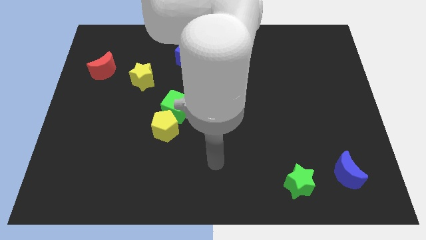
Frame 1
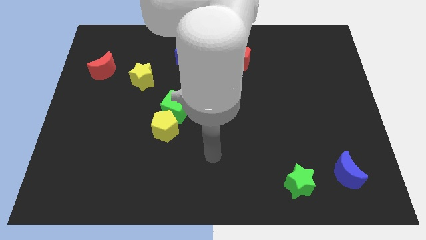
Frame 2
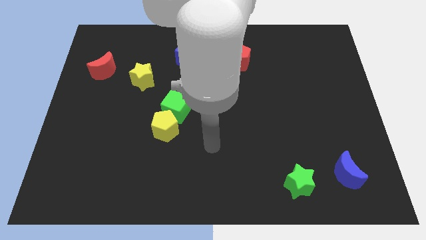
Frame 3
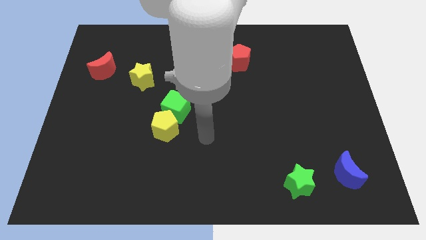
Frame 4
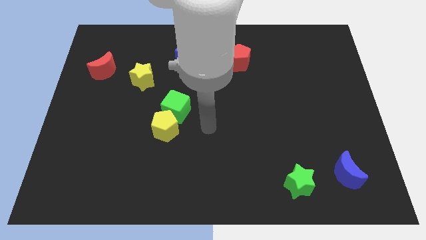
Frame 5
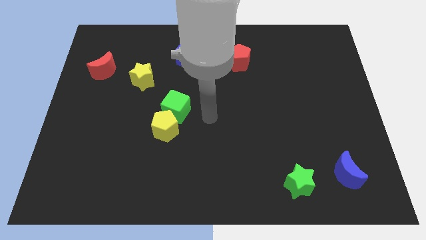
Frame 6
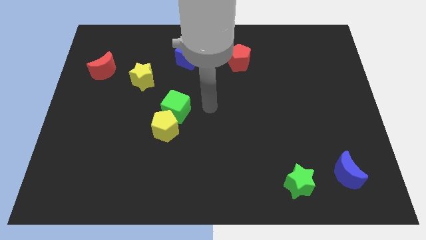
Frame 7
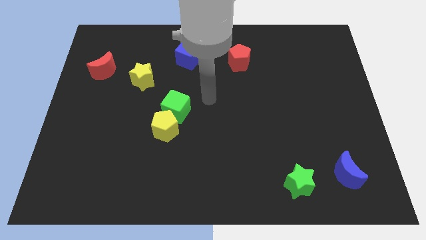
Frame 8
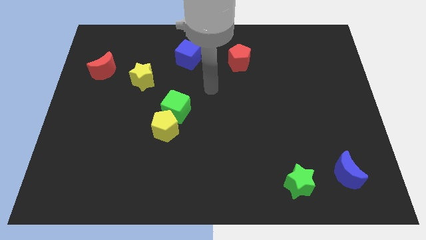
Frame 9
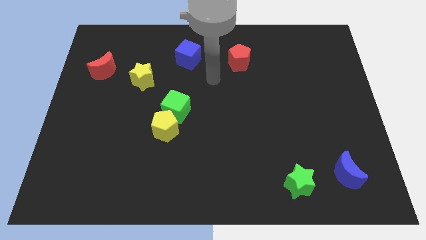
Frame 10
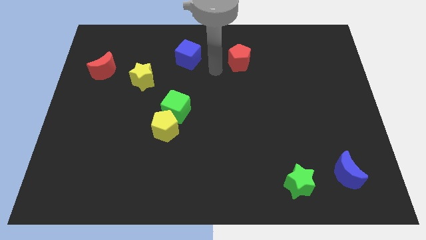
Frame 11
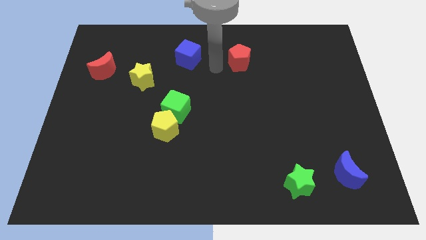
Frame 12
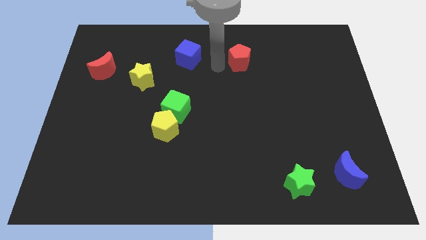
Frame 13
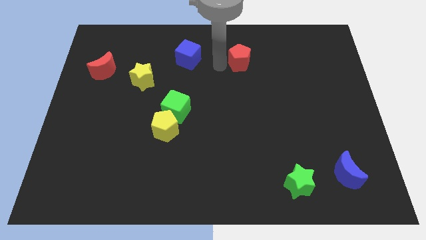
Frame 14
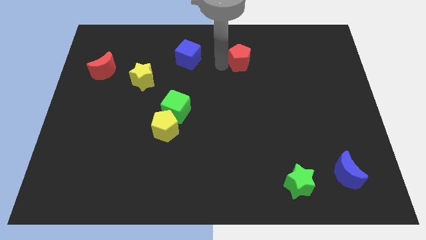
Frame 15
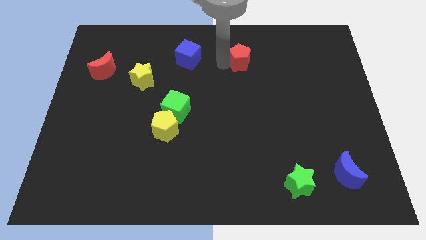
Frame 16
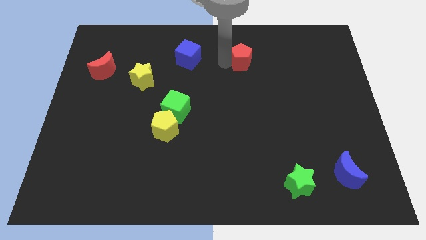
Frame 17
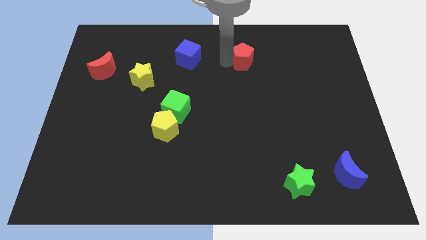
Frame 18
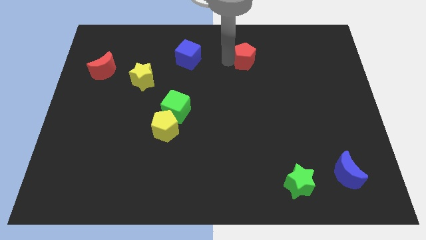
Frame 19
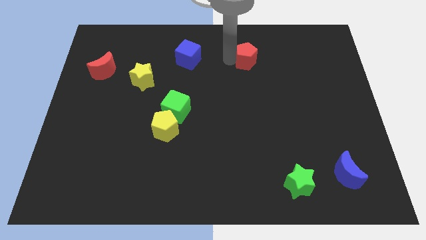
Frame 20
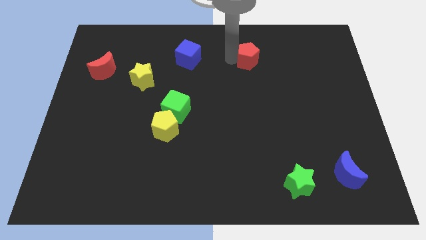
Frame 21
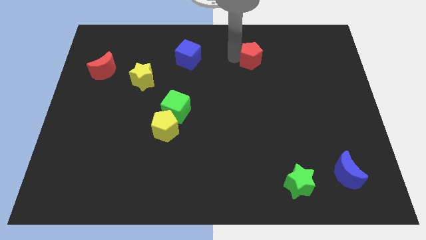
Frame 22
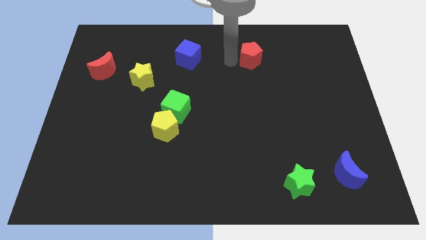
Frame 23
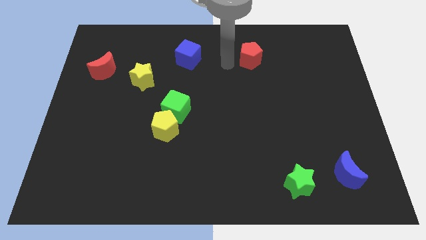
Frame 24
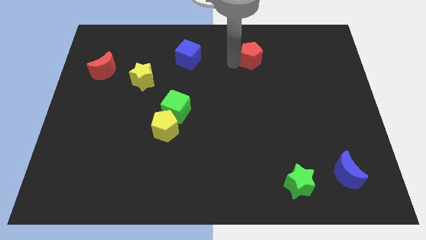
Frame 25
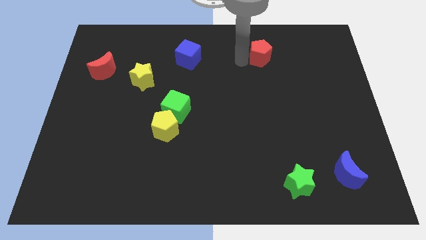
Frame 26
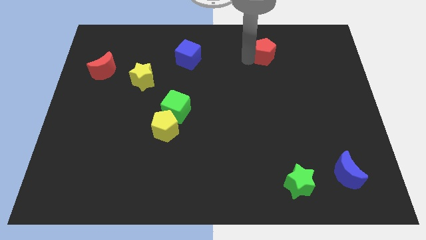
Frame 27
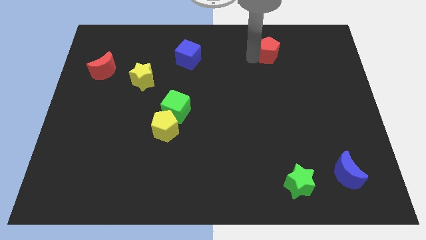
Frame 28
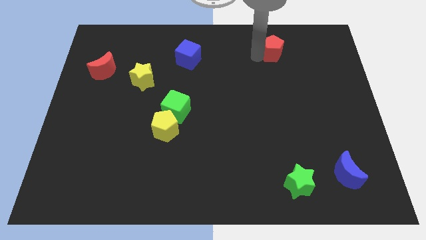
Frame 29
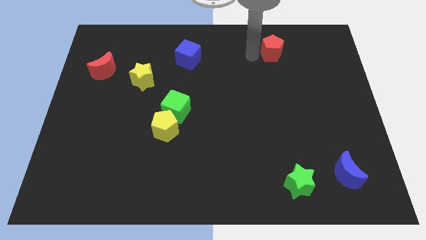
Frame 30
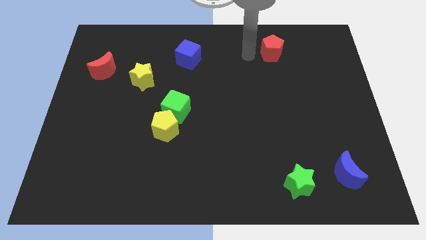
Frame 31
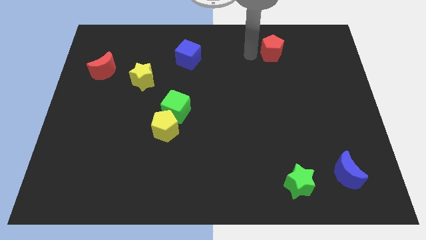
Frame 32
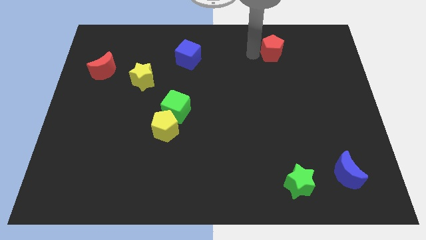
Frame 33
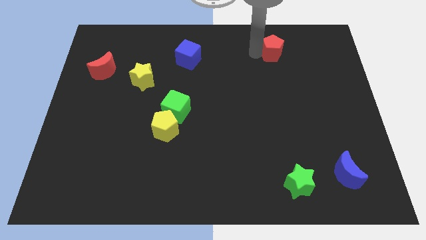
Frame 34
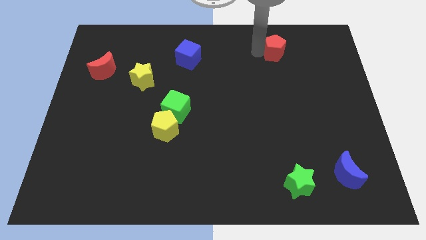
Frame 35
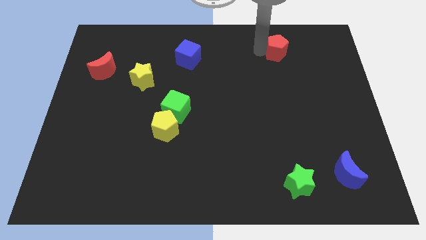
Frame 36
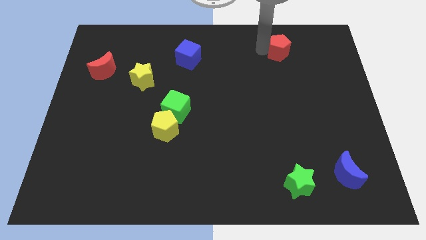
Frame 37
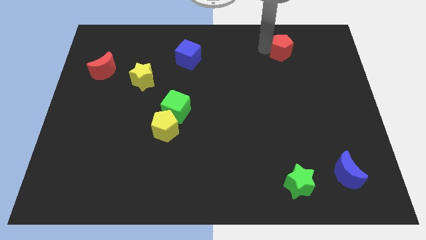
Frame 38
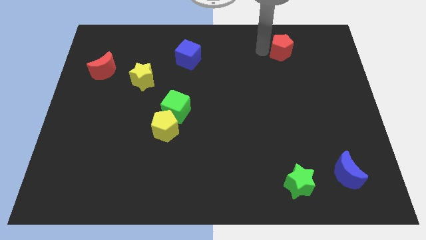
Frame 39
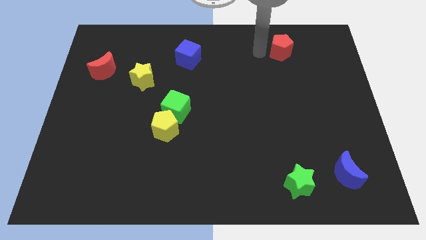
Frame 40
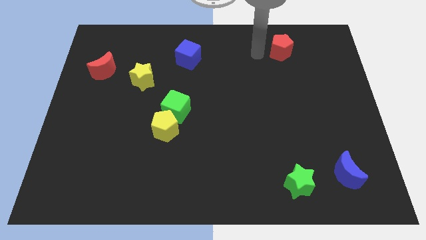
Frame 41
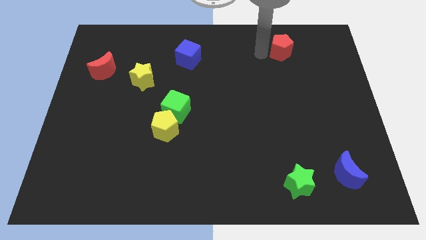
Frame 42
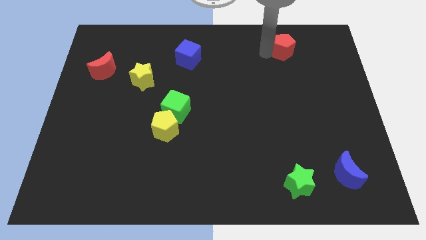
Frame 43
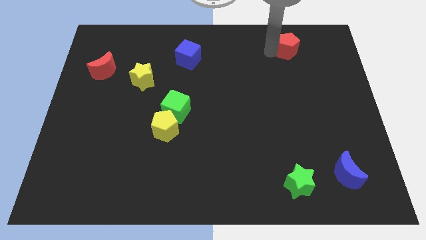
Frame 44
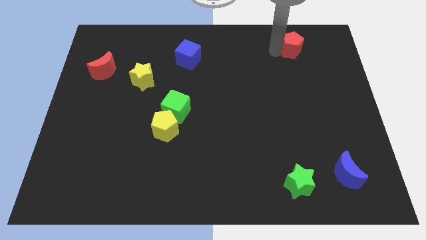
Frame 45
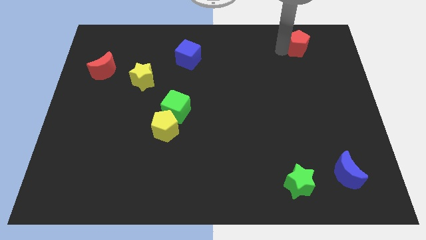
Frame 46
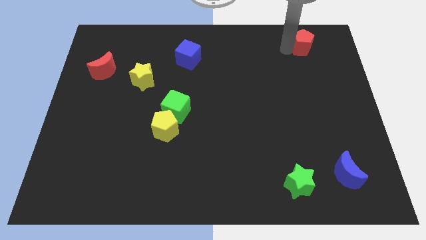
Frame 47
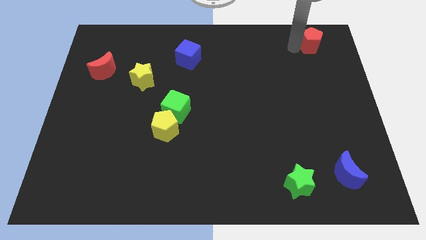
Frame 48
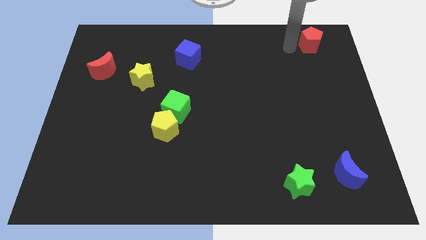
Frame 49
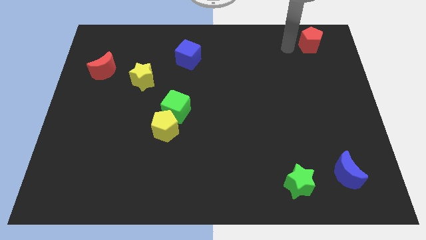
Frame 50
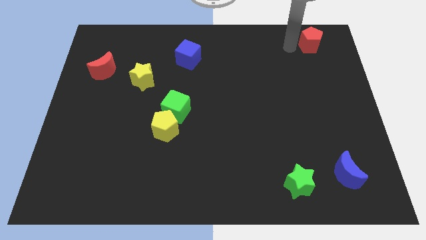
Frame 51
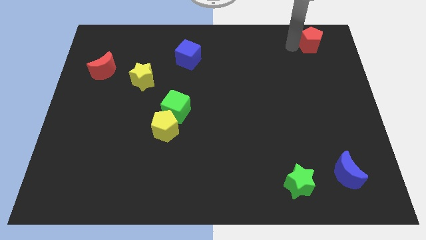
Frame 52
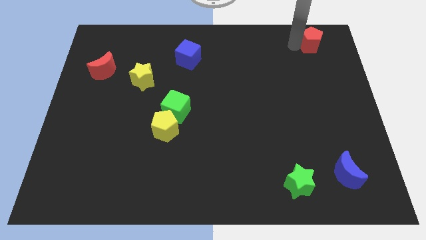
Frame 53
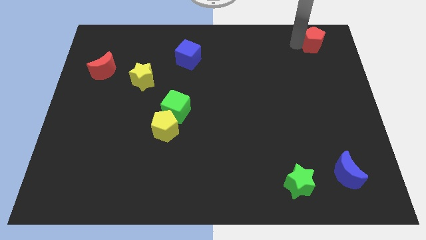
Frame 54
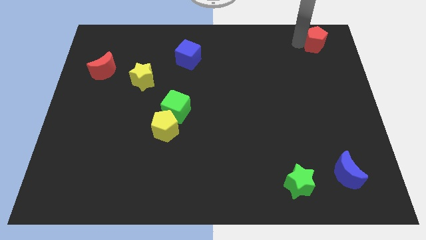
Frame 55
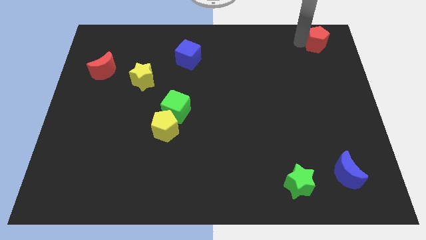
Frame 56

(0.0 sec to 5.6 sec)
push the red pentagon to the upper right corner
